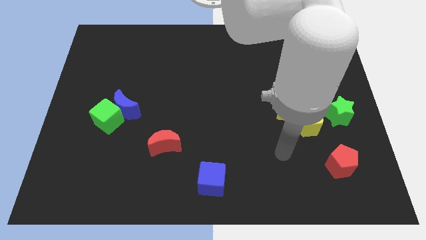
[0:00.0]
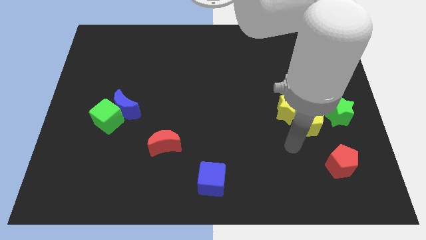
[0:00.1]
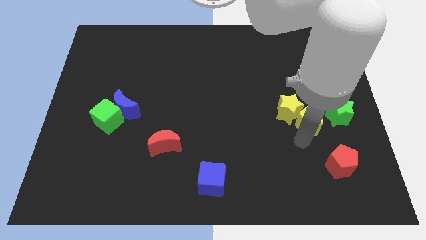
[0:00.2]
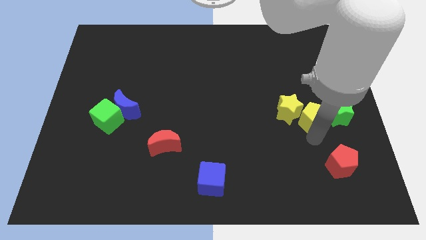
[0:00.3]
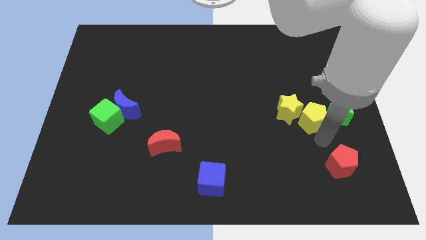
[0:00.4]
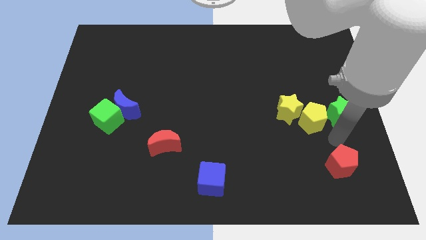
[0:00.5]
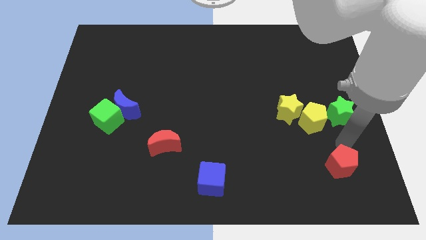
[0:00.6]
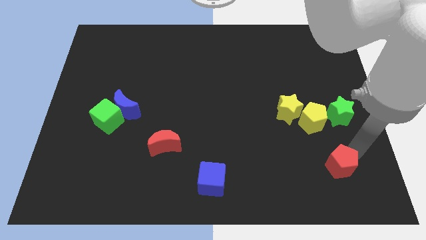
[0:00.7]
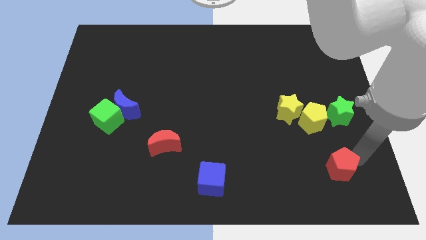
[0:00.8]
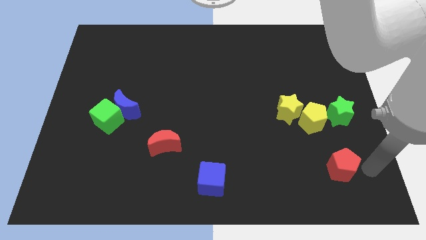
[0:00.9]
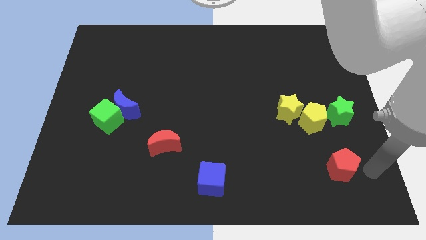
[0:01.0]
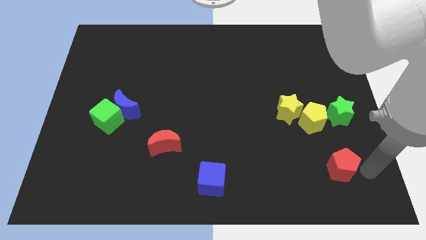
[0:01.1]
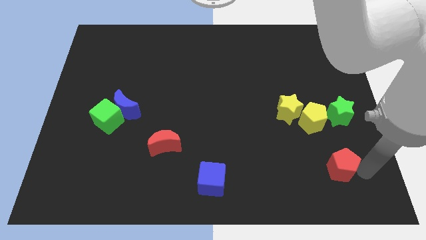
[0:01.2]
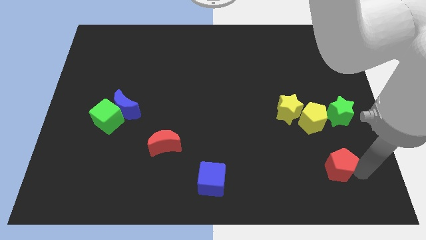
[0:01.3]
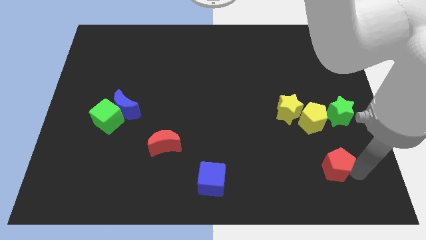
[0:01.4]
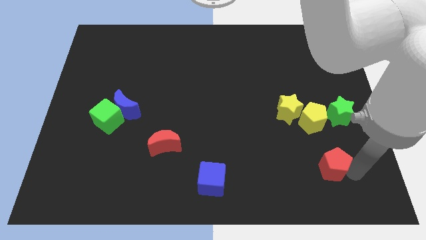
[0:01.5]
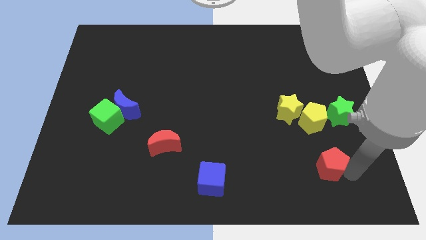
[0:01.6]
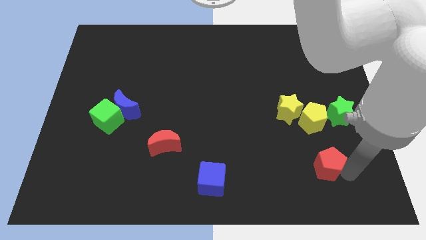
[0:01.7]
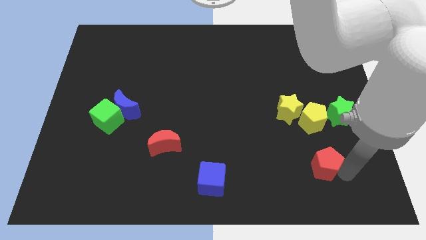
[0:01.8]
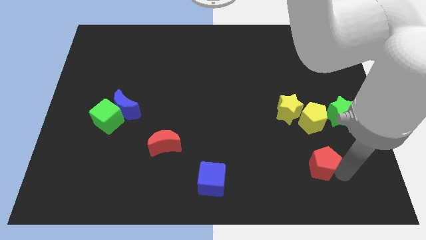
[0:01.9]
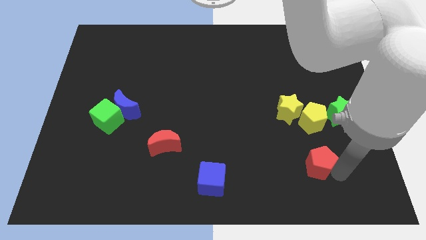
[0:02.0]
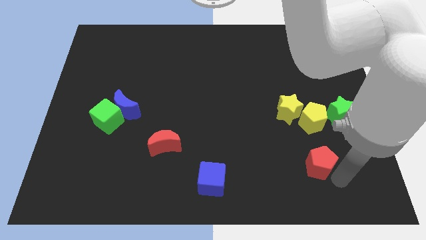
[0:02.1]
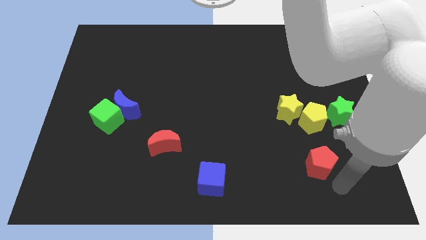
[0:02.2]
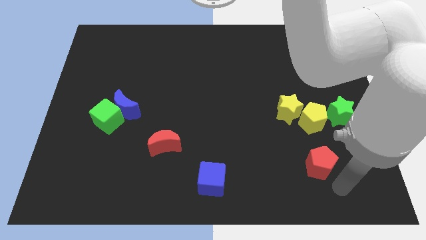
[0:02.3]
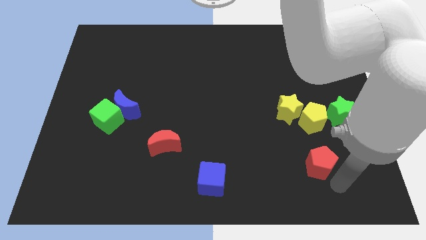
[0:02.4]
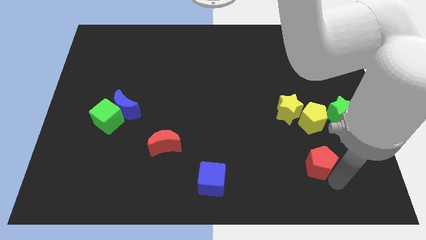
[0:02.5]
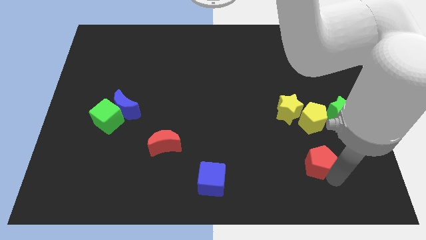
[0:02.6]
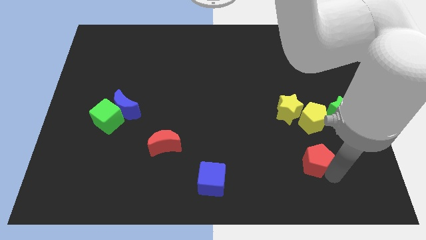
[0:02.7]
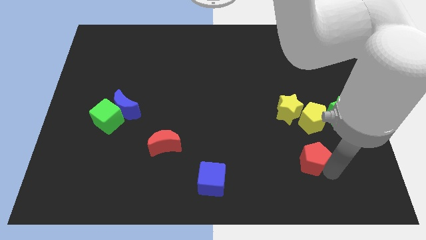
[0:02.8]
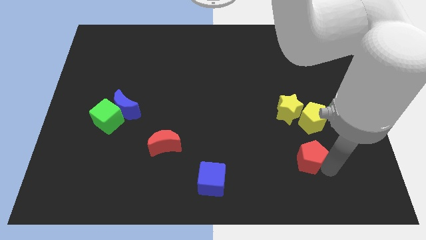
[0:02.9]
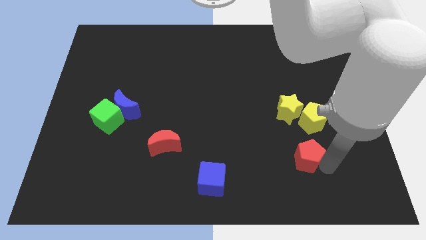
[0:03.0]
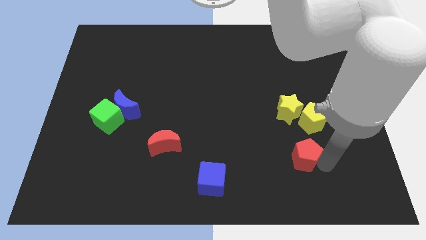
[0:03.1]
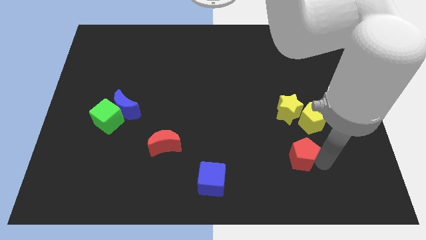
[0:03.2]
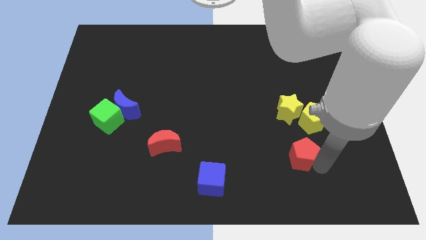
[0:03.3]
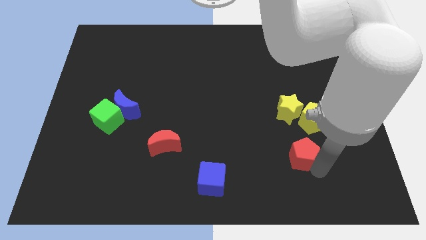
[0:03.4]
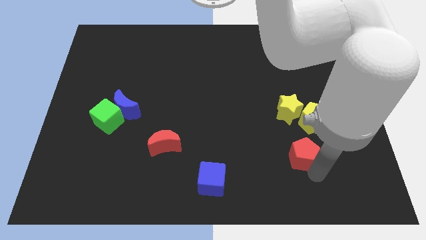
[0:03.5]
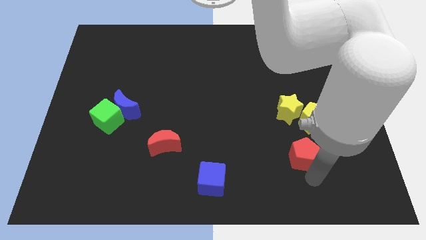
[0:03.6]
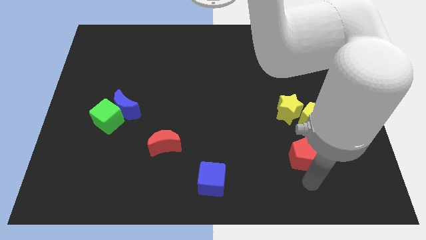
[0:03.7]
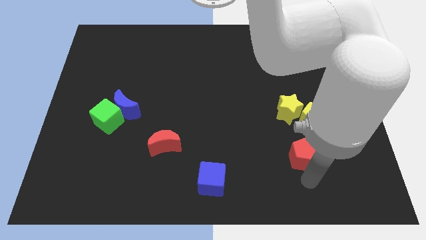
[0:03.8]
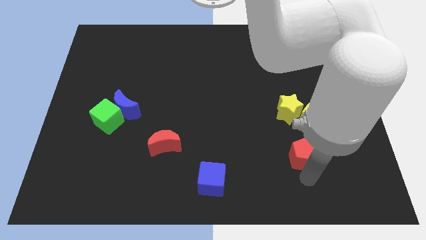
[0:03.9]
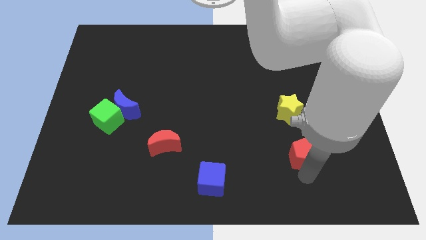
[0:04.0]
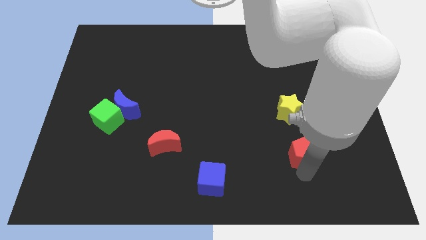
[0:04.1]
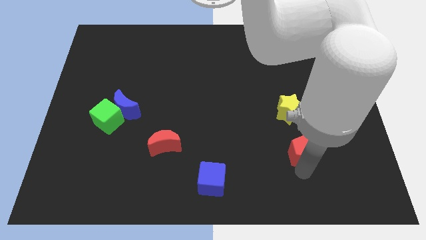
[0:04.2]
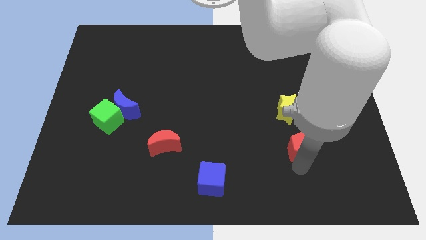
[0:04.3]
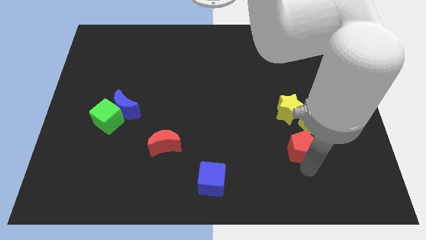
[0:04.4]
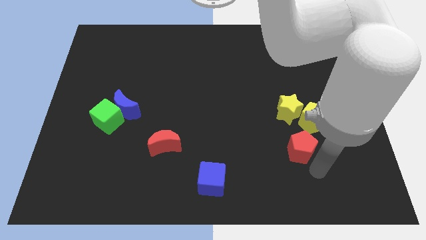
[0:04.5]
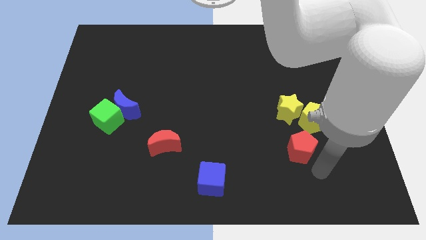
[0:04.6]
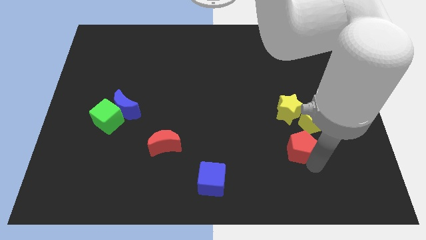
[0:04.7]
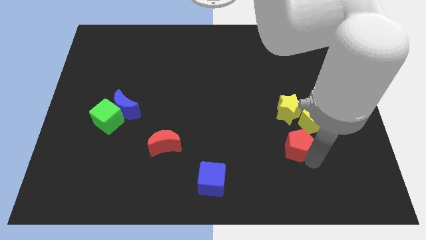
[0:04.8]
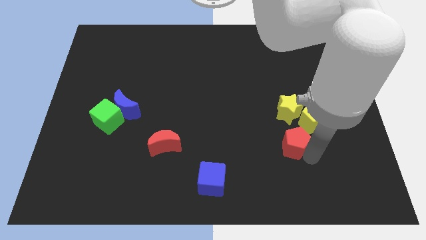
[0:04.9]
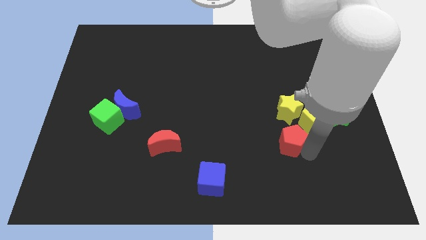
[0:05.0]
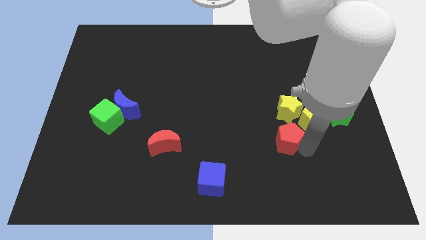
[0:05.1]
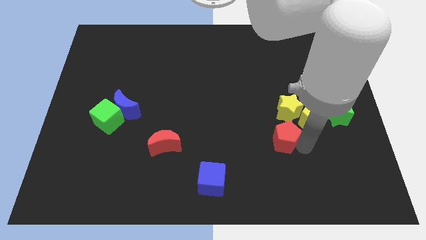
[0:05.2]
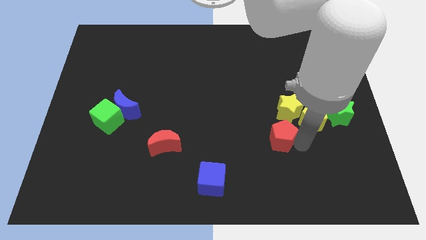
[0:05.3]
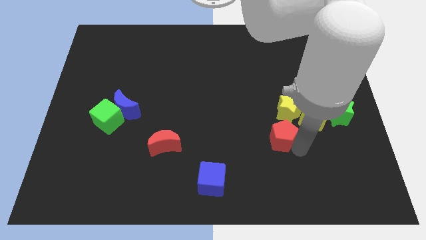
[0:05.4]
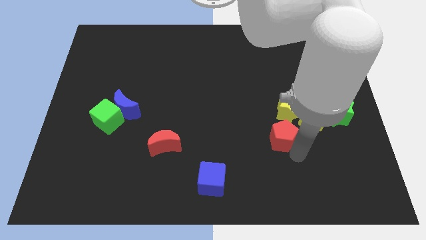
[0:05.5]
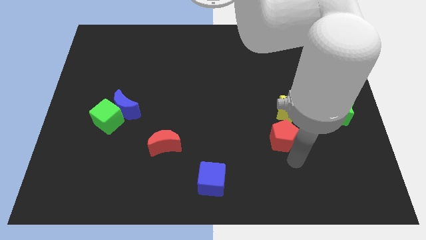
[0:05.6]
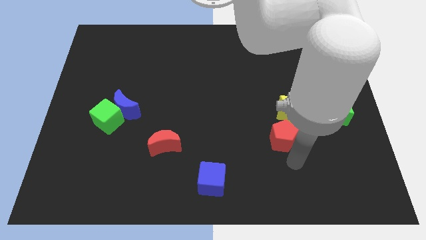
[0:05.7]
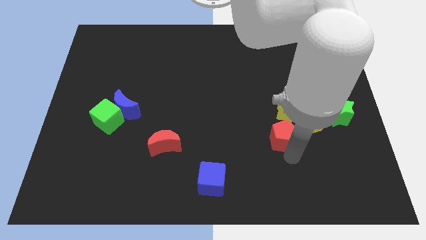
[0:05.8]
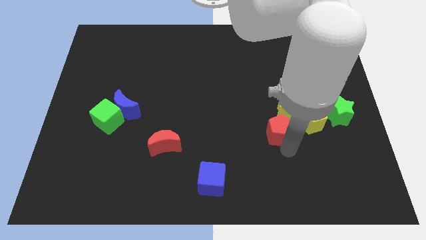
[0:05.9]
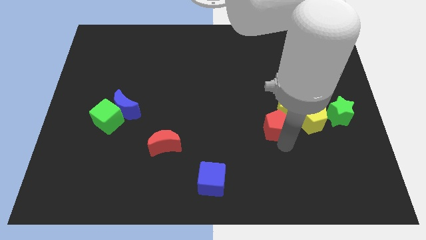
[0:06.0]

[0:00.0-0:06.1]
slide the red pentagon left of the green star

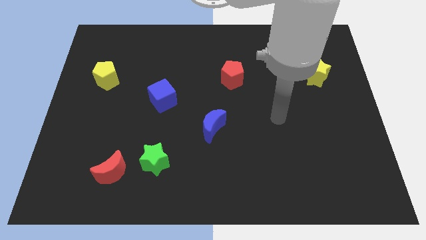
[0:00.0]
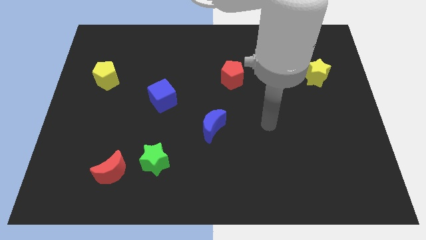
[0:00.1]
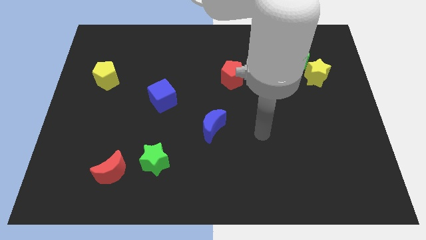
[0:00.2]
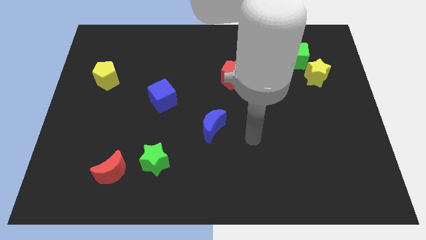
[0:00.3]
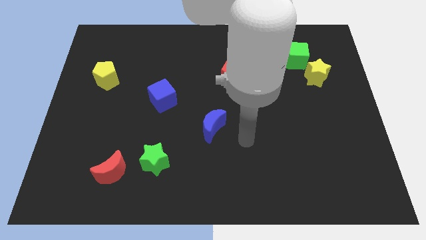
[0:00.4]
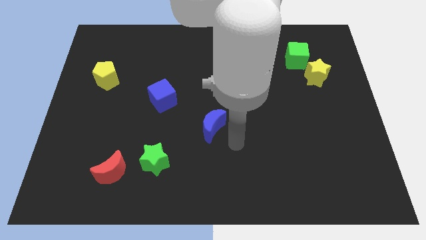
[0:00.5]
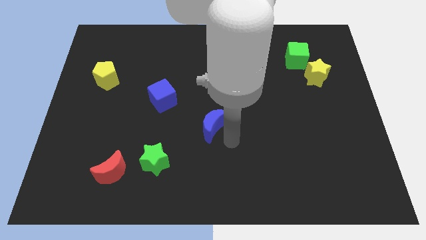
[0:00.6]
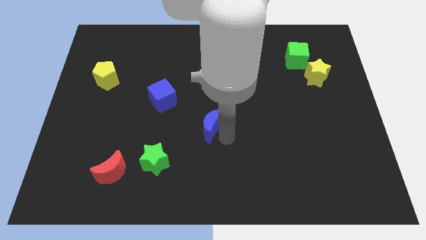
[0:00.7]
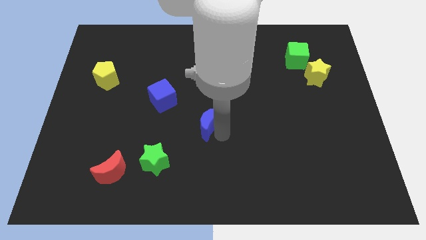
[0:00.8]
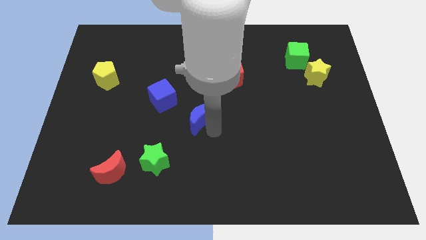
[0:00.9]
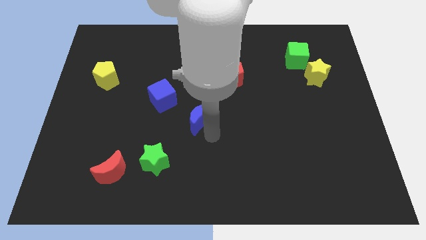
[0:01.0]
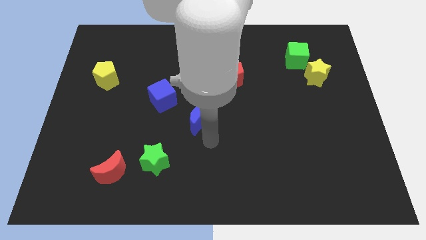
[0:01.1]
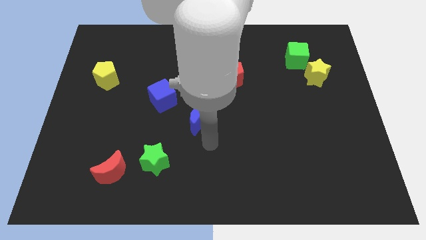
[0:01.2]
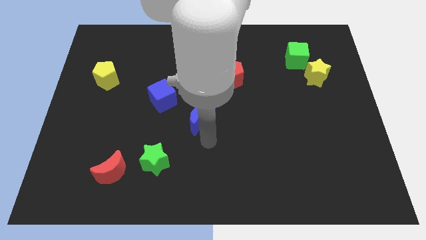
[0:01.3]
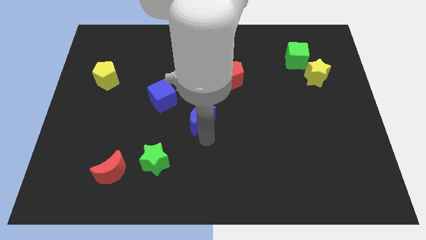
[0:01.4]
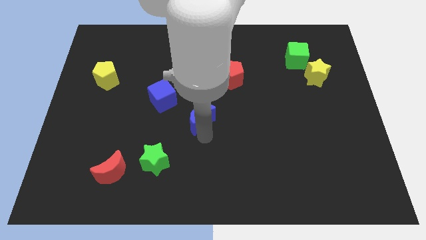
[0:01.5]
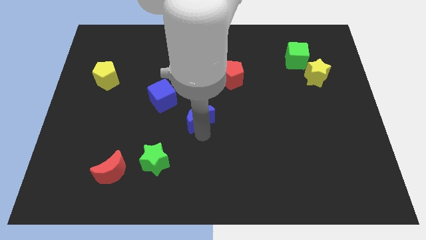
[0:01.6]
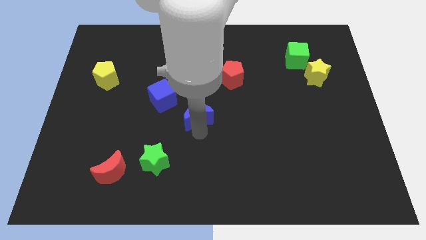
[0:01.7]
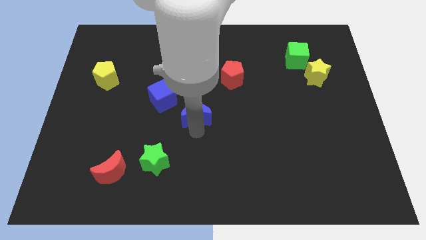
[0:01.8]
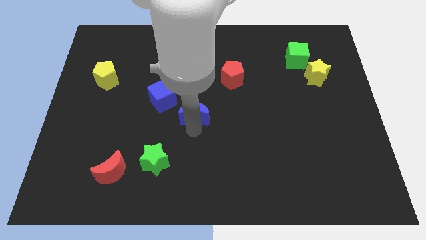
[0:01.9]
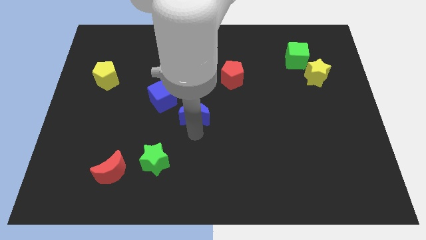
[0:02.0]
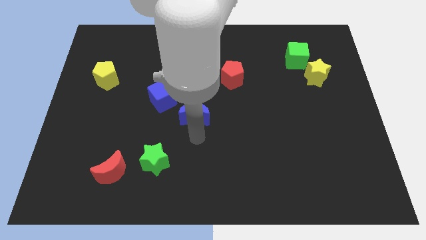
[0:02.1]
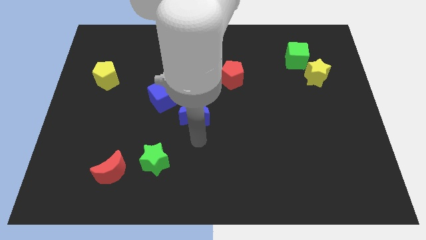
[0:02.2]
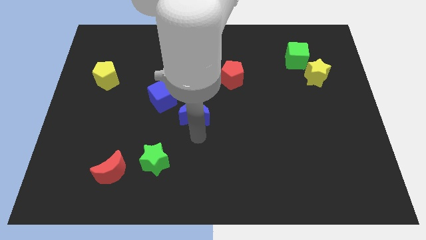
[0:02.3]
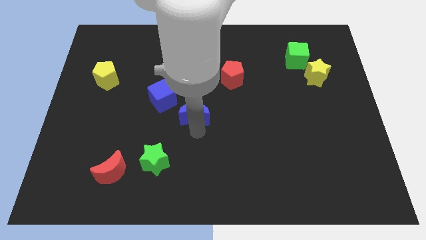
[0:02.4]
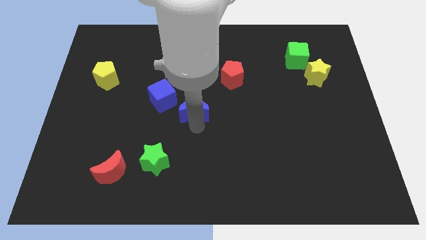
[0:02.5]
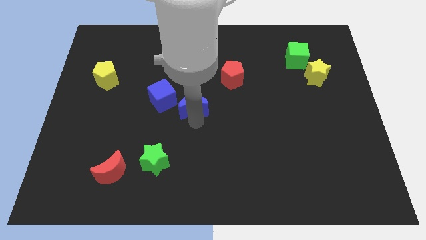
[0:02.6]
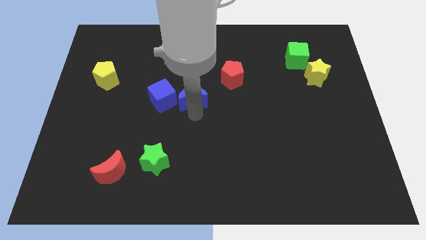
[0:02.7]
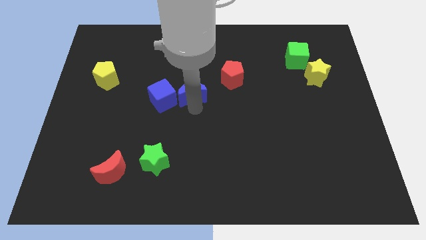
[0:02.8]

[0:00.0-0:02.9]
slide the blue moon diagonally up and to the right of the blue cube
